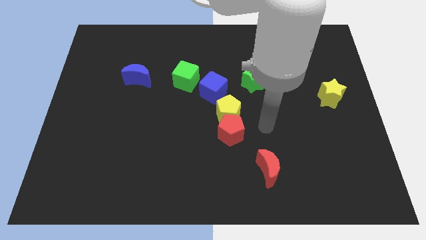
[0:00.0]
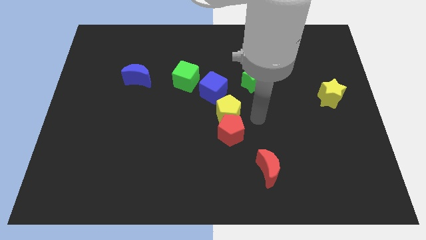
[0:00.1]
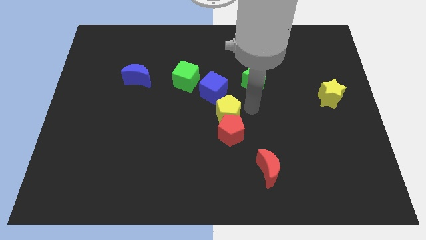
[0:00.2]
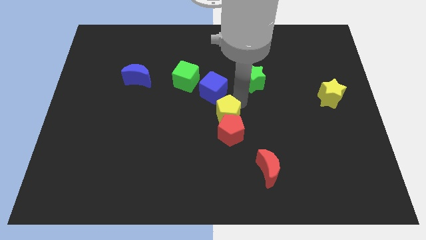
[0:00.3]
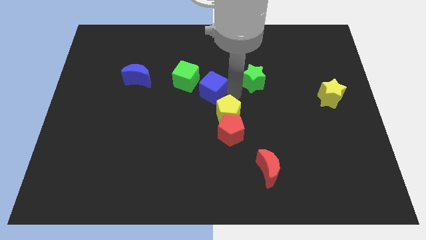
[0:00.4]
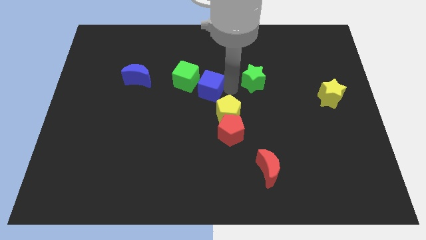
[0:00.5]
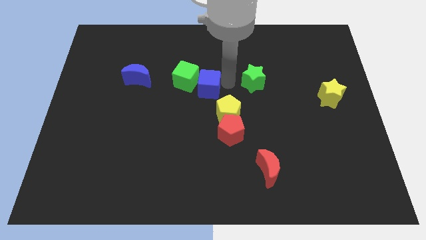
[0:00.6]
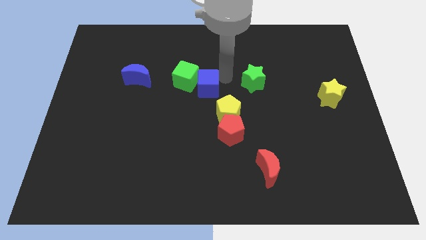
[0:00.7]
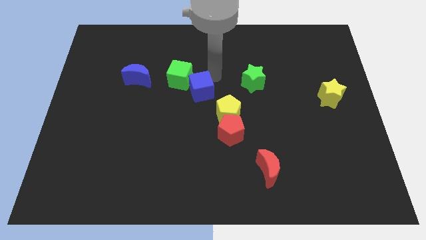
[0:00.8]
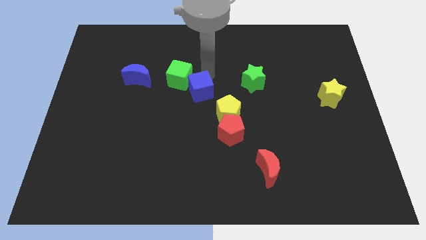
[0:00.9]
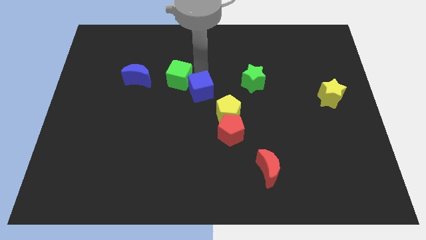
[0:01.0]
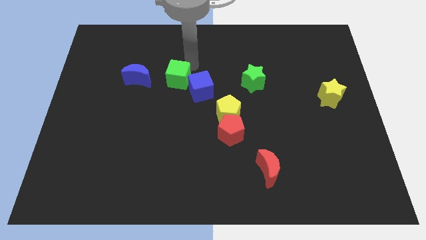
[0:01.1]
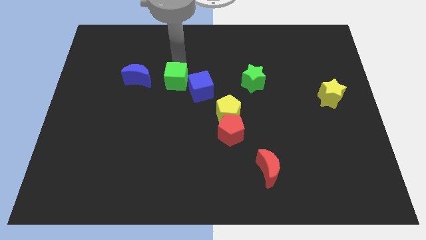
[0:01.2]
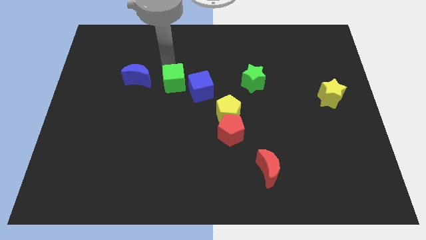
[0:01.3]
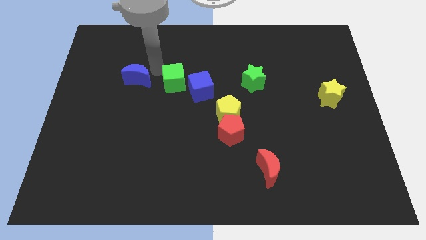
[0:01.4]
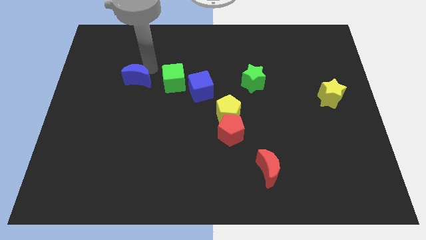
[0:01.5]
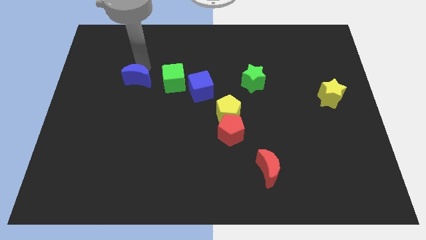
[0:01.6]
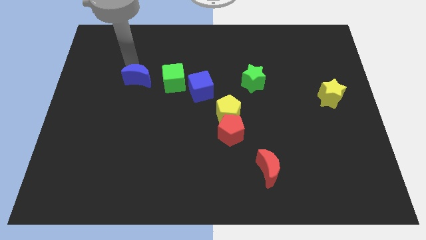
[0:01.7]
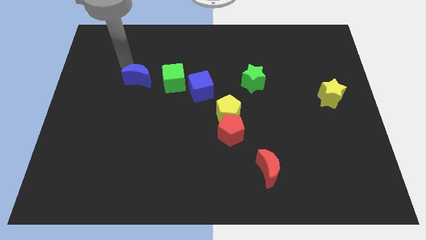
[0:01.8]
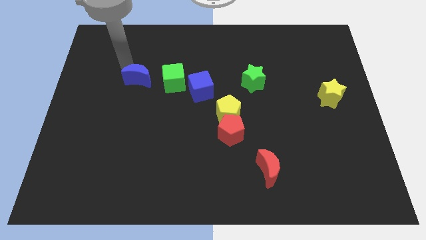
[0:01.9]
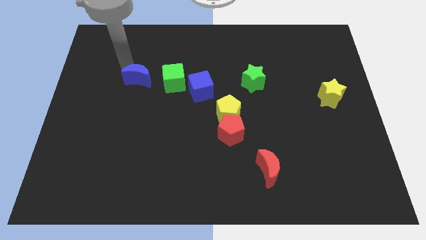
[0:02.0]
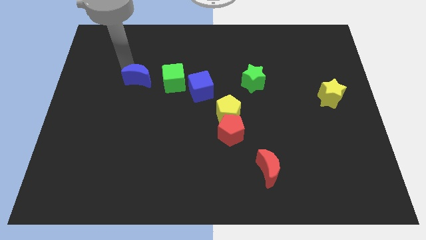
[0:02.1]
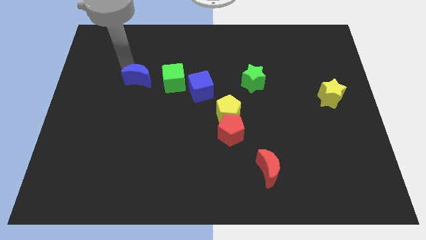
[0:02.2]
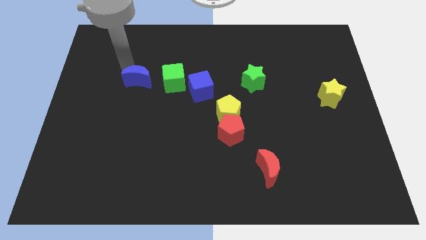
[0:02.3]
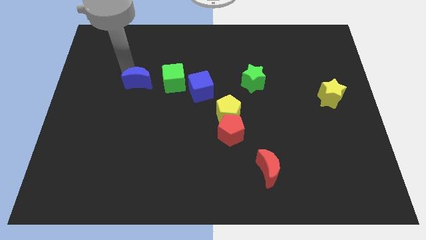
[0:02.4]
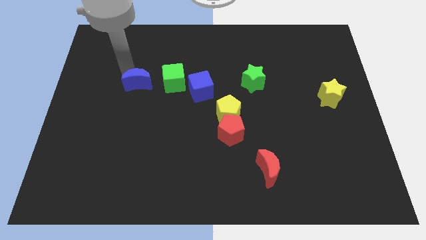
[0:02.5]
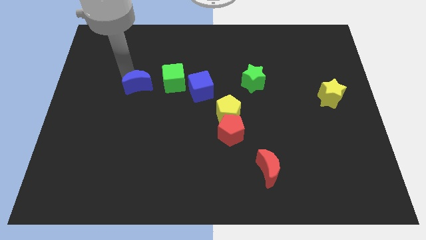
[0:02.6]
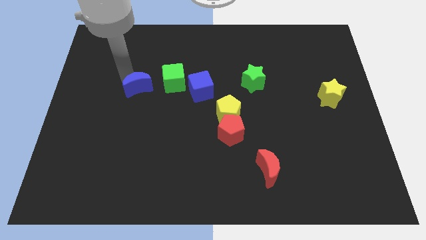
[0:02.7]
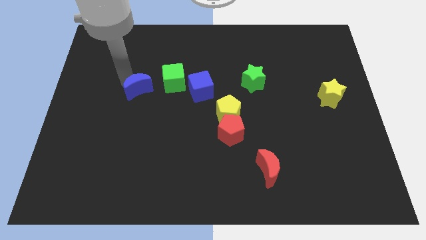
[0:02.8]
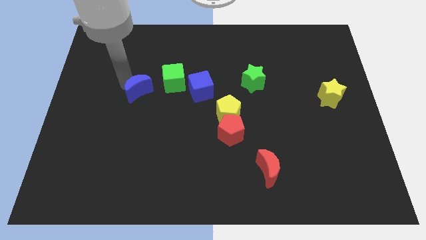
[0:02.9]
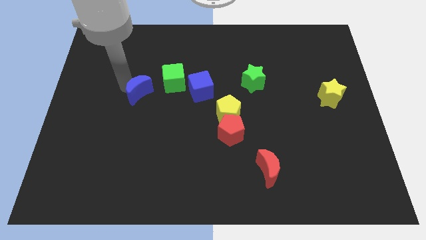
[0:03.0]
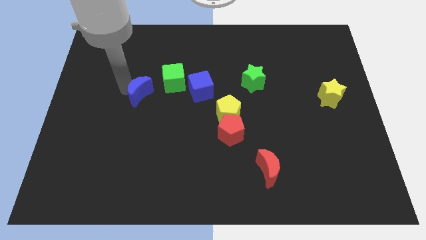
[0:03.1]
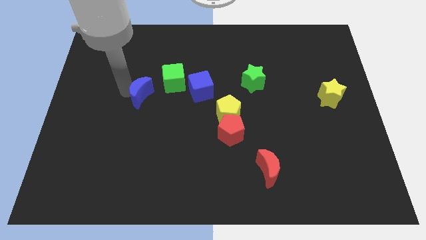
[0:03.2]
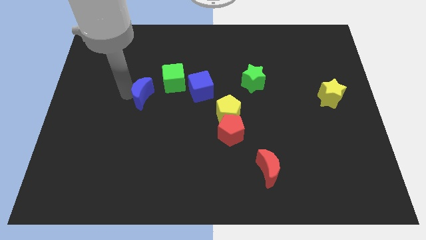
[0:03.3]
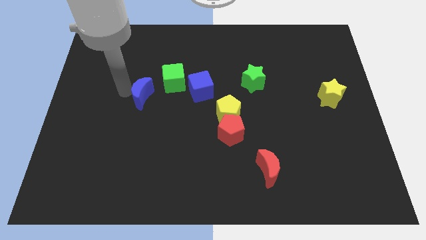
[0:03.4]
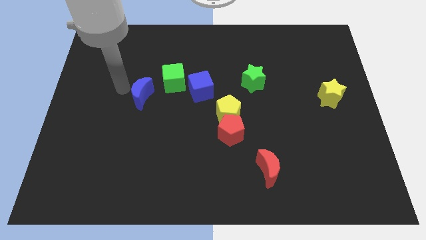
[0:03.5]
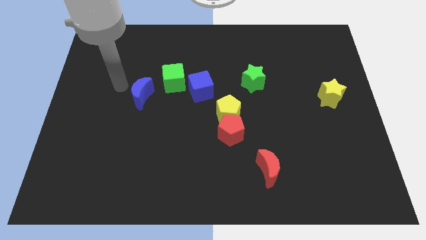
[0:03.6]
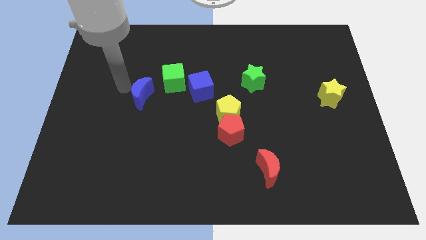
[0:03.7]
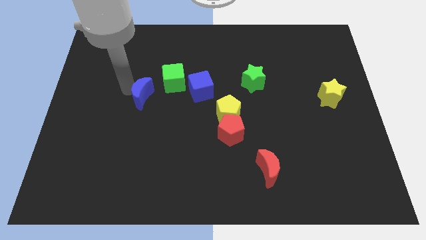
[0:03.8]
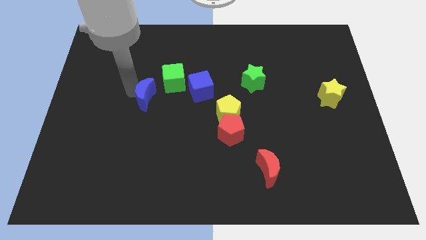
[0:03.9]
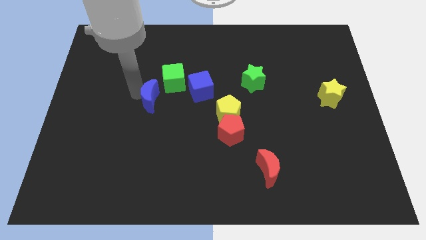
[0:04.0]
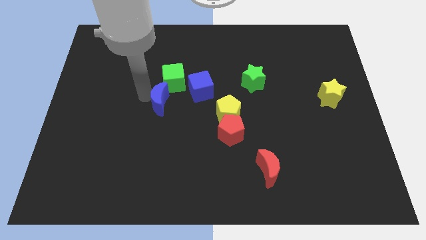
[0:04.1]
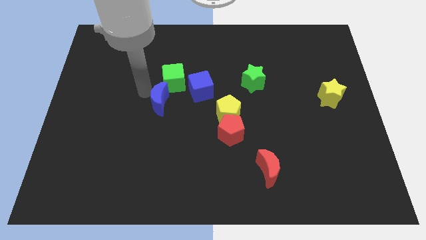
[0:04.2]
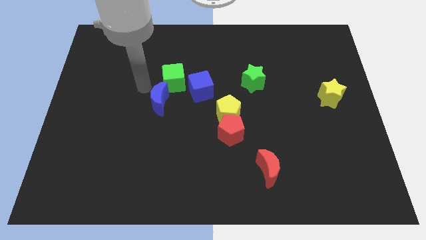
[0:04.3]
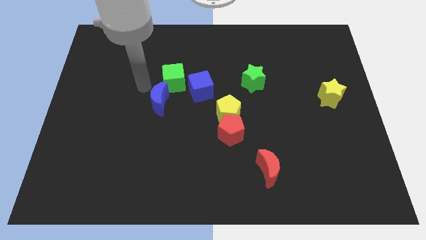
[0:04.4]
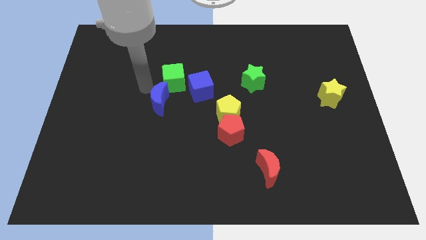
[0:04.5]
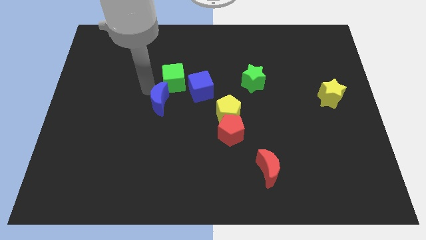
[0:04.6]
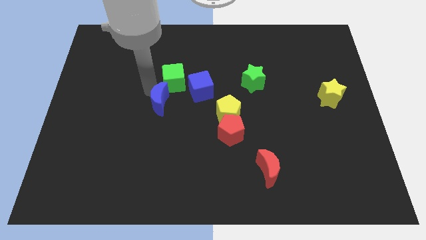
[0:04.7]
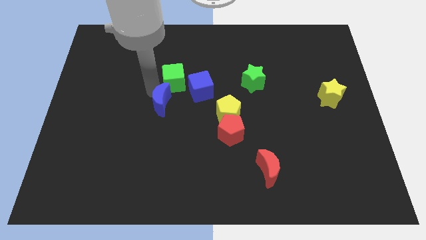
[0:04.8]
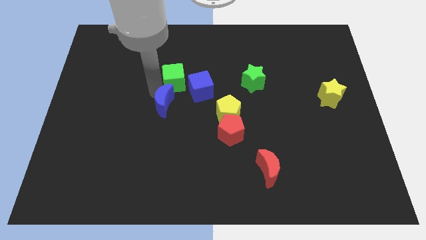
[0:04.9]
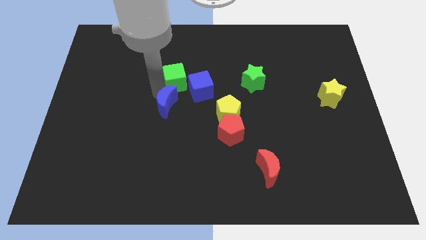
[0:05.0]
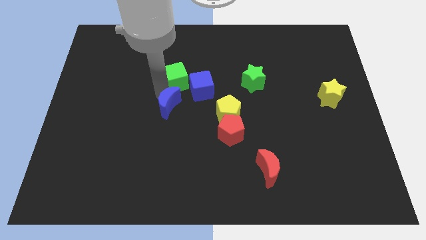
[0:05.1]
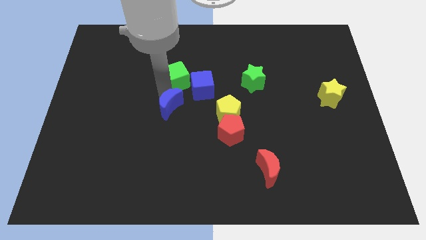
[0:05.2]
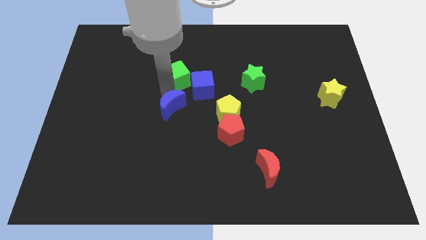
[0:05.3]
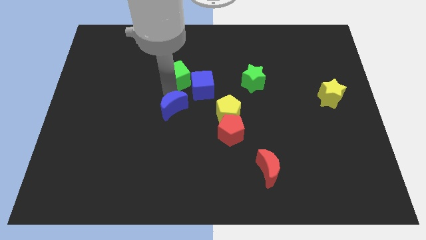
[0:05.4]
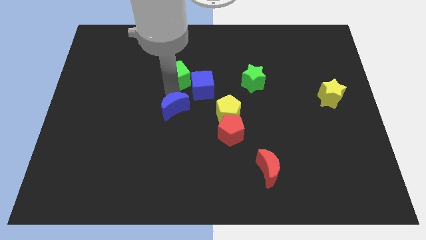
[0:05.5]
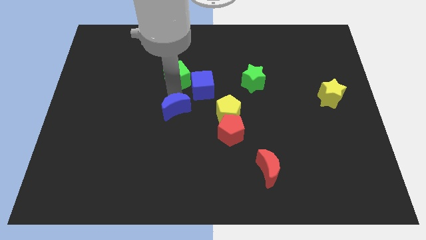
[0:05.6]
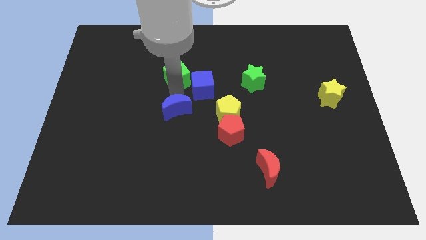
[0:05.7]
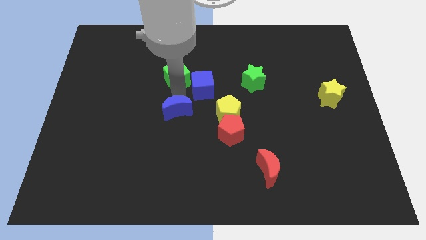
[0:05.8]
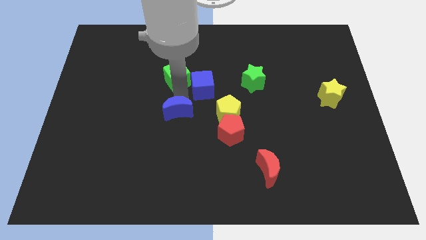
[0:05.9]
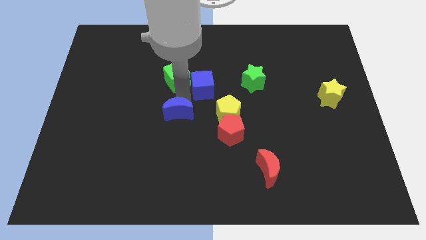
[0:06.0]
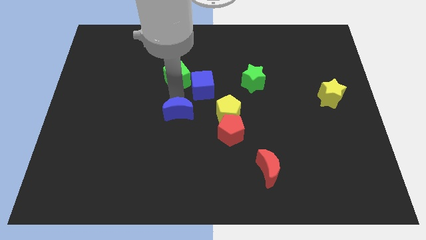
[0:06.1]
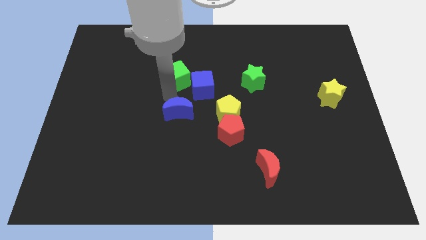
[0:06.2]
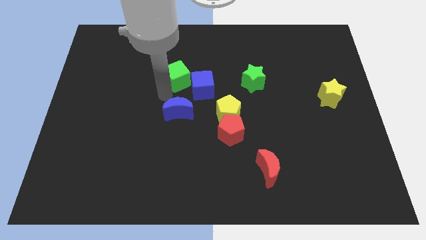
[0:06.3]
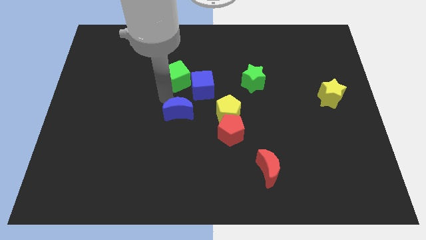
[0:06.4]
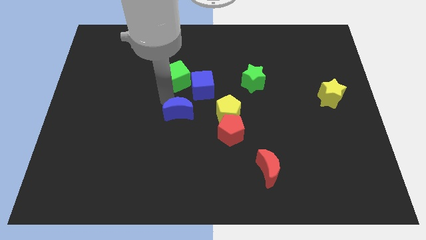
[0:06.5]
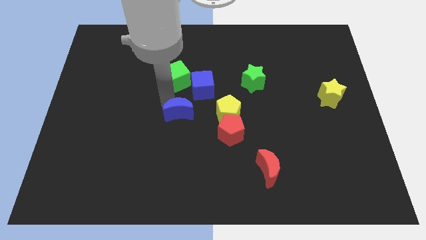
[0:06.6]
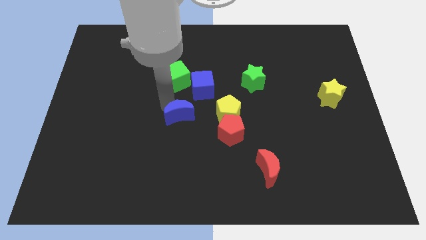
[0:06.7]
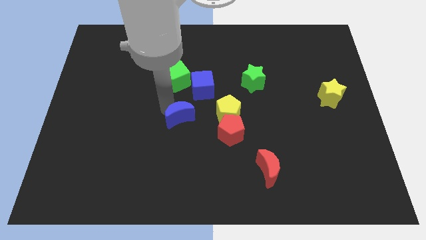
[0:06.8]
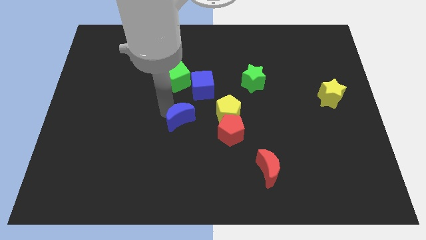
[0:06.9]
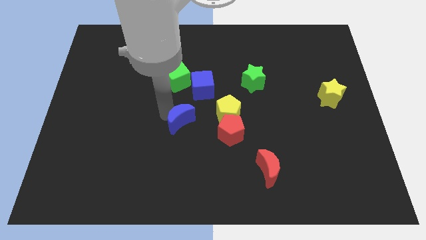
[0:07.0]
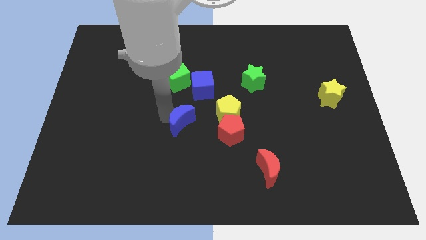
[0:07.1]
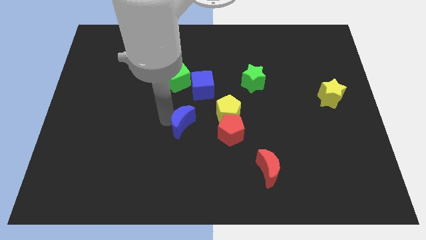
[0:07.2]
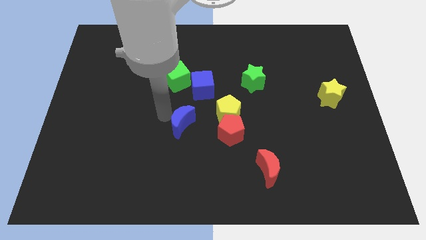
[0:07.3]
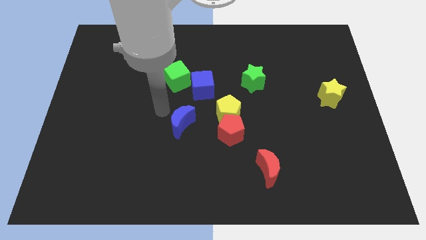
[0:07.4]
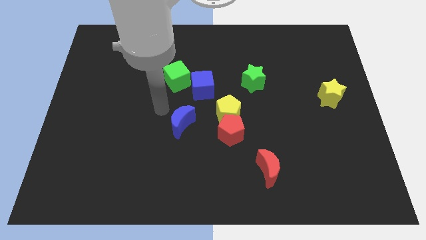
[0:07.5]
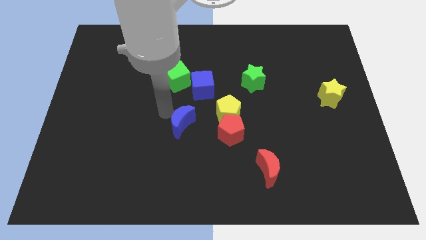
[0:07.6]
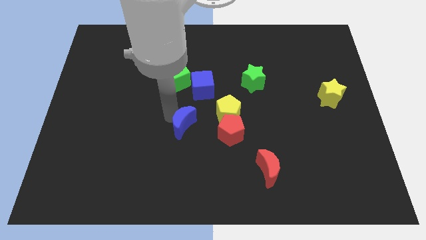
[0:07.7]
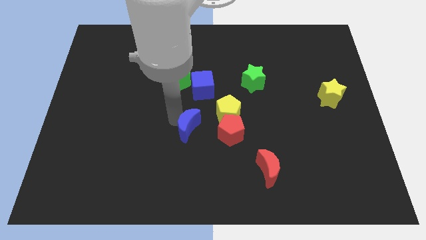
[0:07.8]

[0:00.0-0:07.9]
move the blue moon down and then right

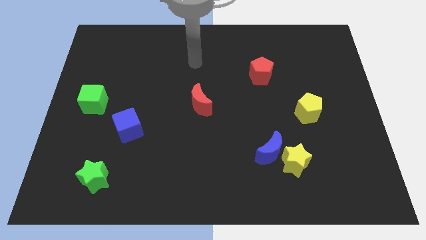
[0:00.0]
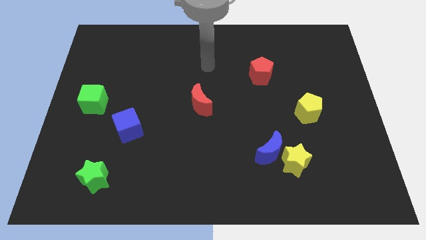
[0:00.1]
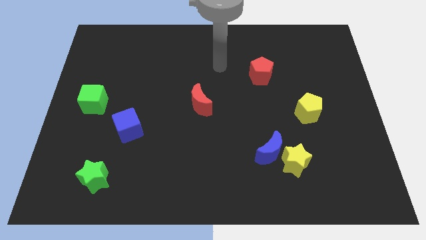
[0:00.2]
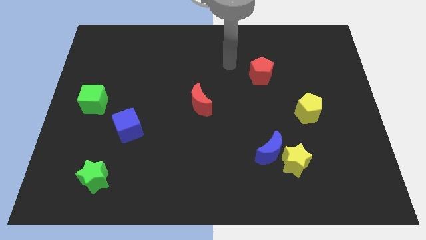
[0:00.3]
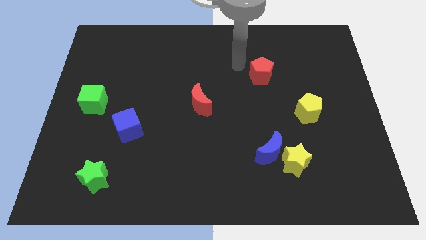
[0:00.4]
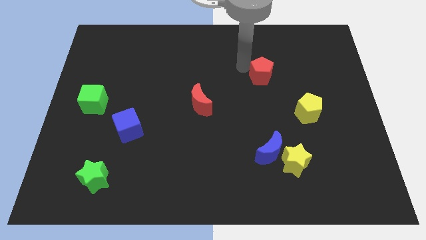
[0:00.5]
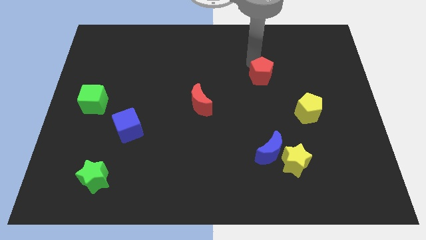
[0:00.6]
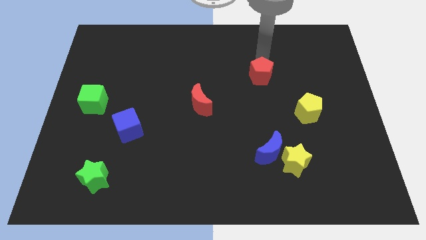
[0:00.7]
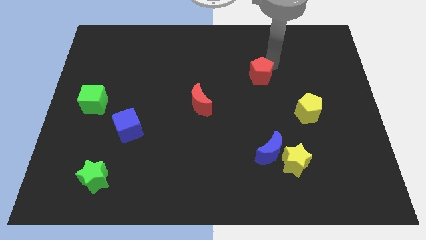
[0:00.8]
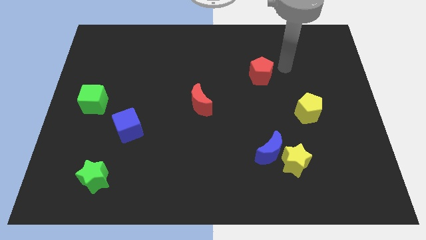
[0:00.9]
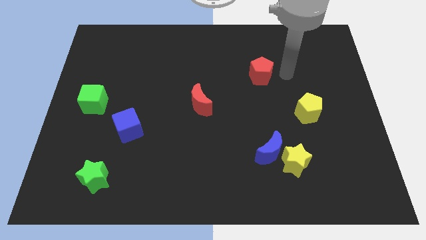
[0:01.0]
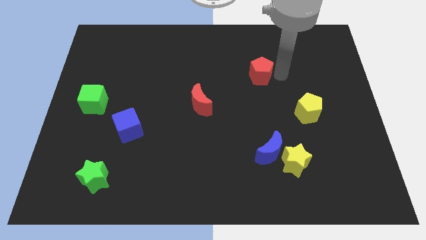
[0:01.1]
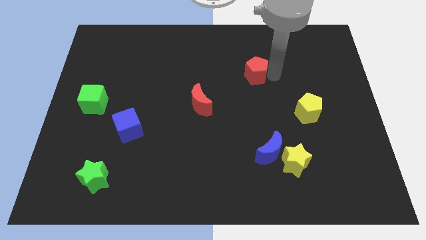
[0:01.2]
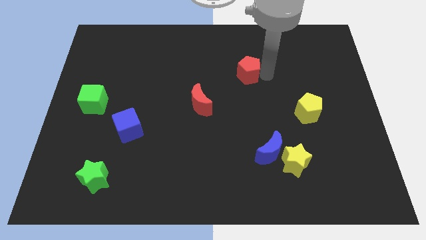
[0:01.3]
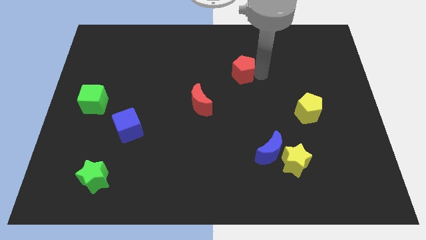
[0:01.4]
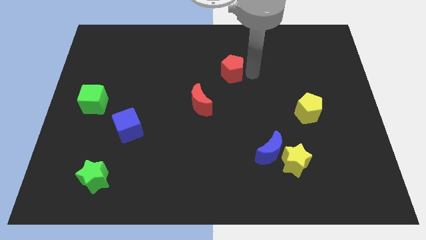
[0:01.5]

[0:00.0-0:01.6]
slightly slide the red pentagon left
